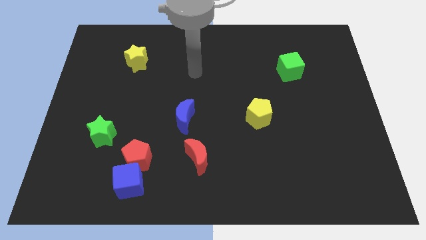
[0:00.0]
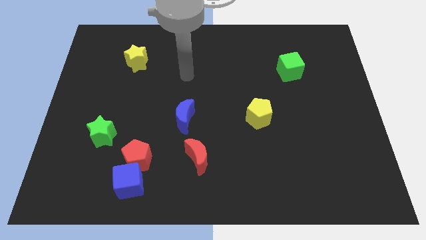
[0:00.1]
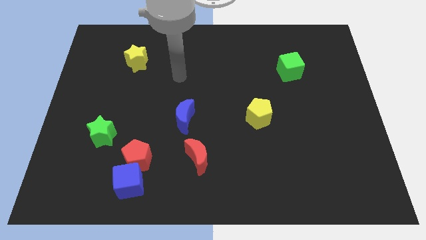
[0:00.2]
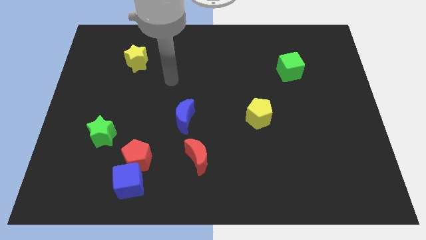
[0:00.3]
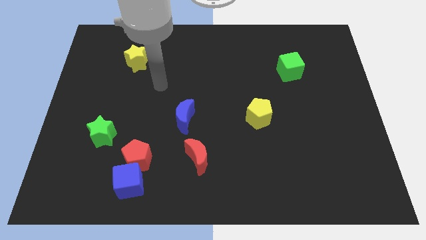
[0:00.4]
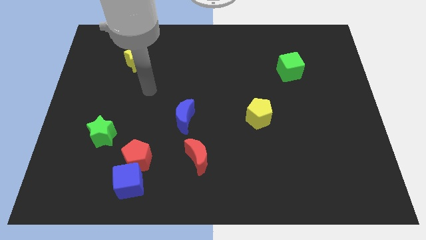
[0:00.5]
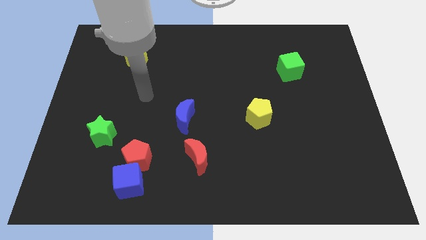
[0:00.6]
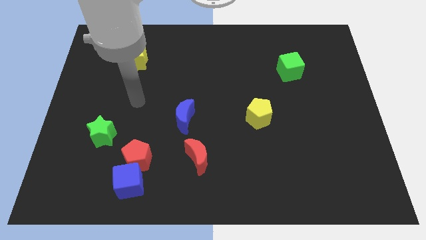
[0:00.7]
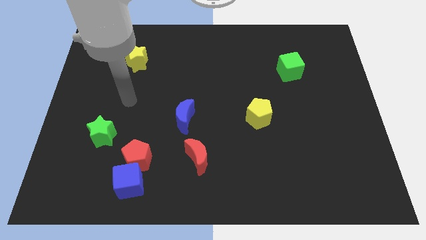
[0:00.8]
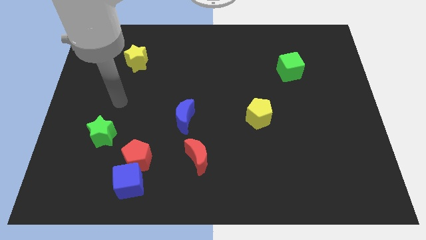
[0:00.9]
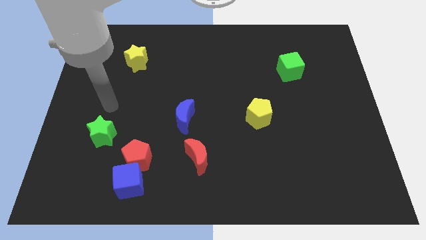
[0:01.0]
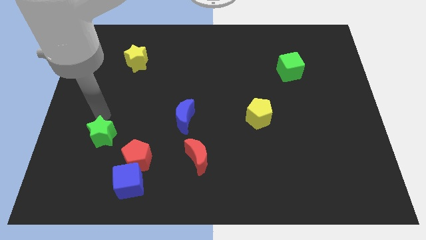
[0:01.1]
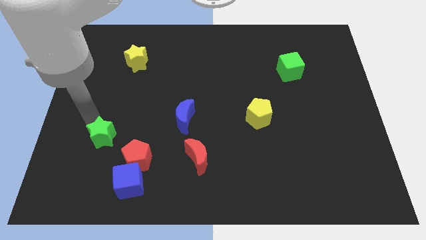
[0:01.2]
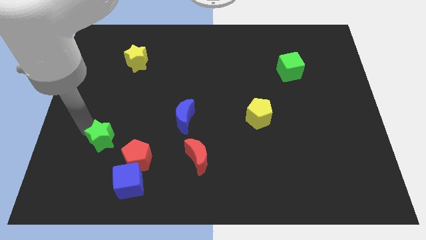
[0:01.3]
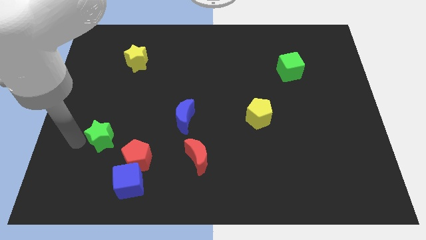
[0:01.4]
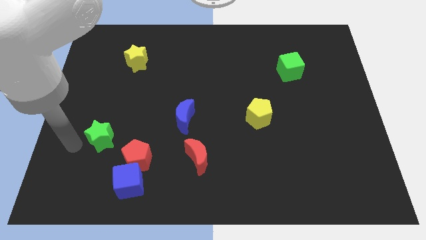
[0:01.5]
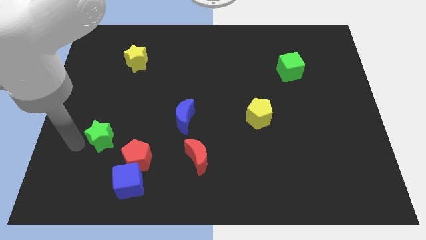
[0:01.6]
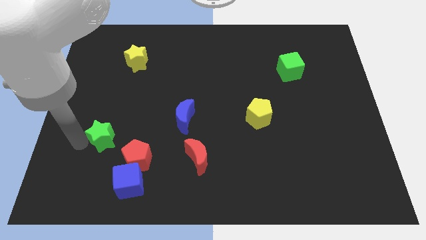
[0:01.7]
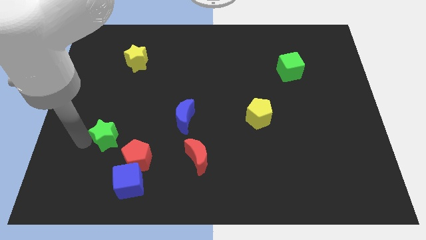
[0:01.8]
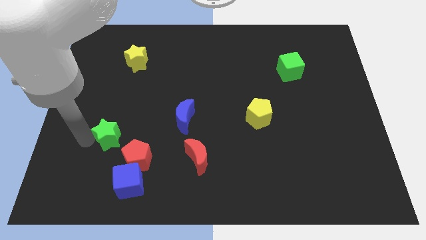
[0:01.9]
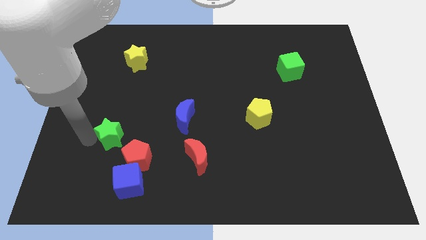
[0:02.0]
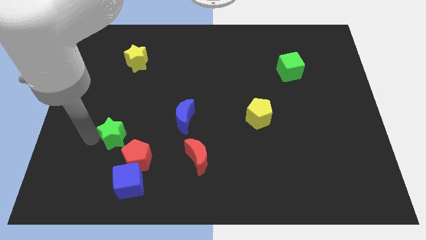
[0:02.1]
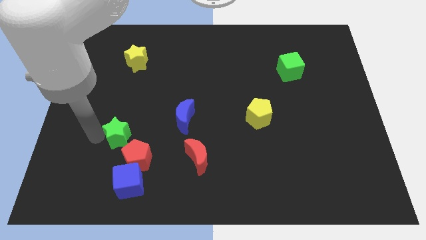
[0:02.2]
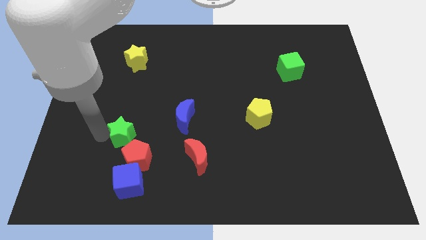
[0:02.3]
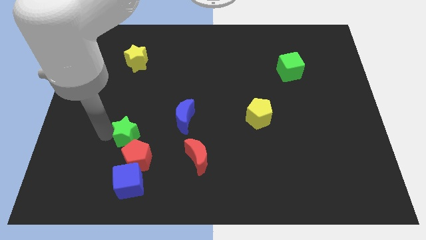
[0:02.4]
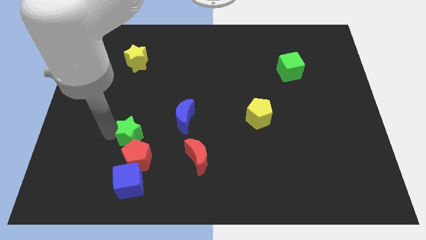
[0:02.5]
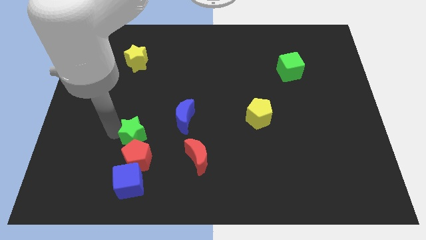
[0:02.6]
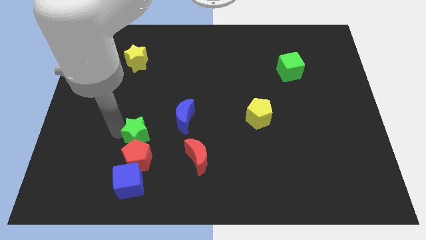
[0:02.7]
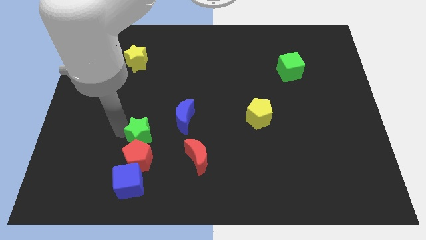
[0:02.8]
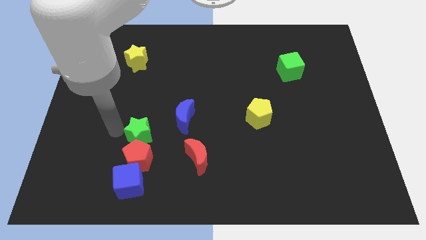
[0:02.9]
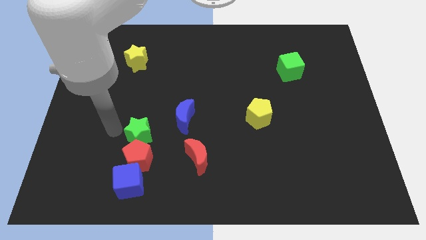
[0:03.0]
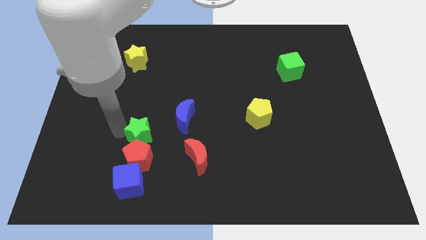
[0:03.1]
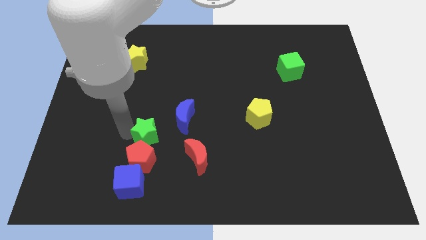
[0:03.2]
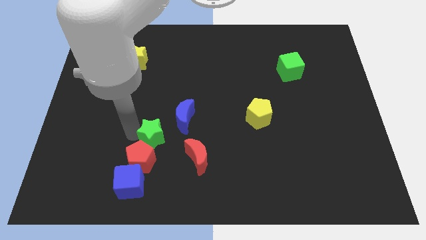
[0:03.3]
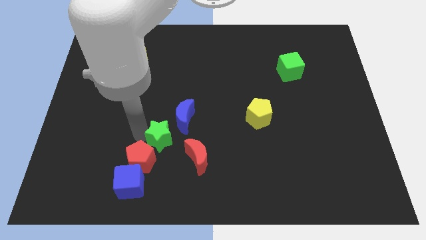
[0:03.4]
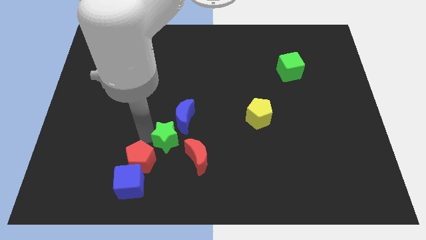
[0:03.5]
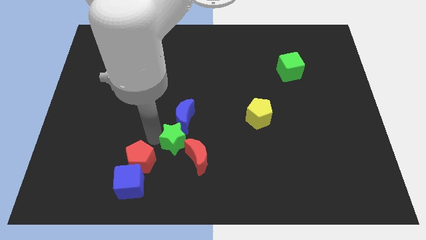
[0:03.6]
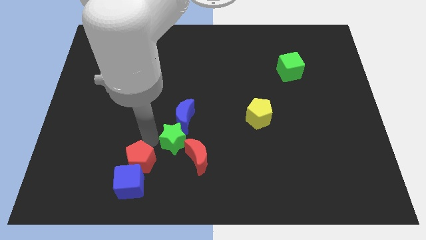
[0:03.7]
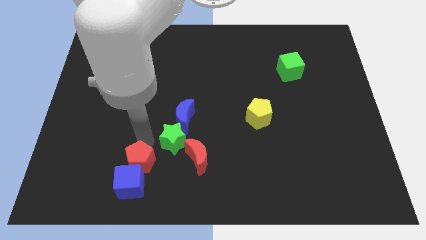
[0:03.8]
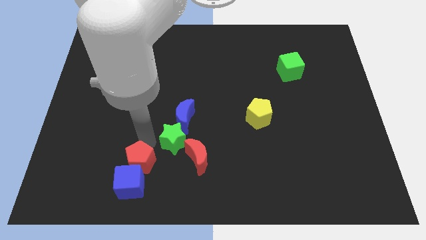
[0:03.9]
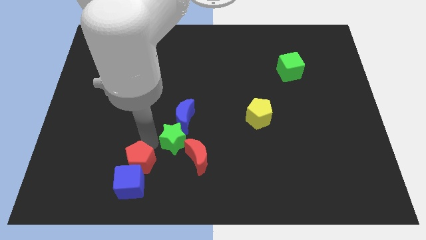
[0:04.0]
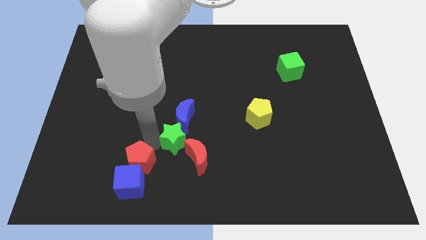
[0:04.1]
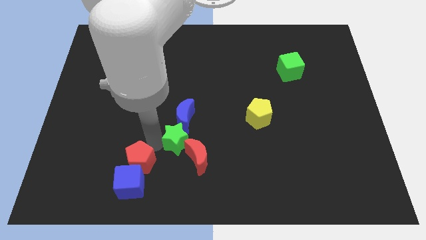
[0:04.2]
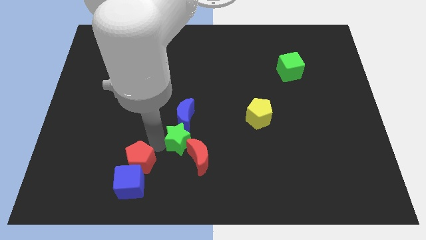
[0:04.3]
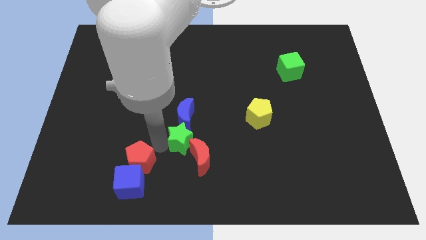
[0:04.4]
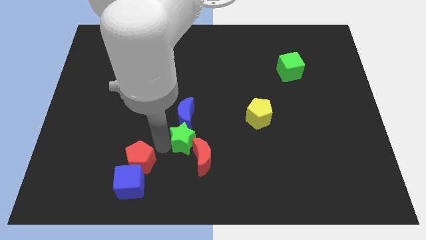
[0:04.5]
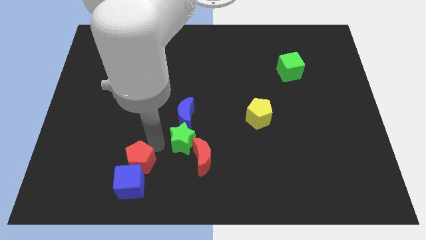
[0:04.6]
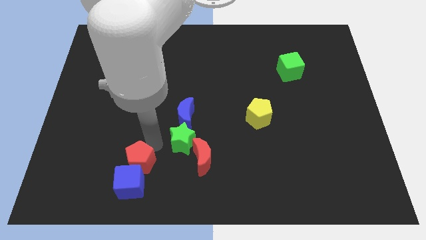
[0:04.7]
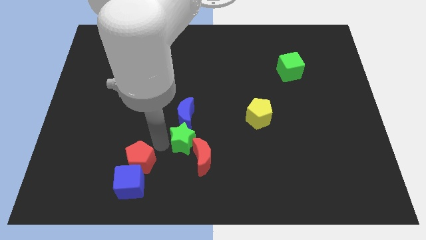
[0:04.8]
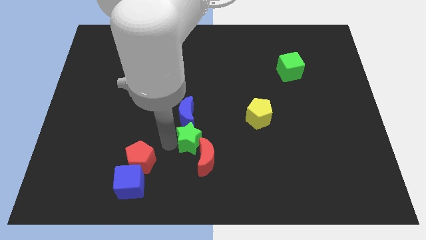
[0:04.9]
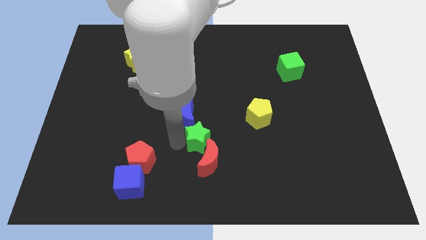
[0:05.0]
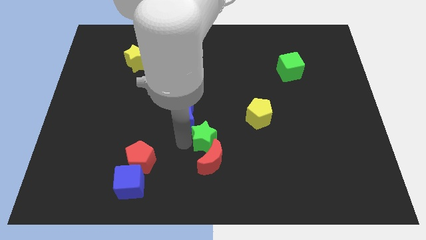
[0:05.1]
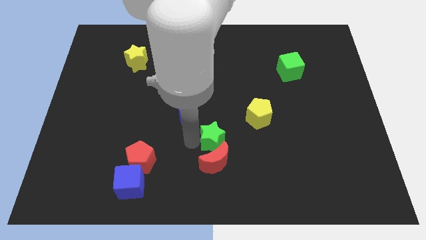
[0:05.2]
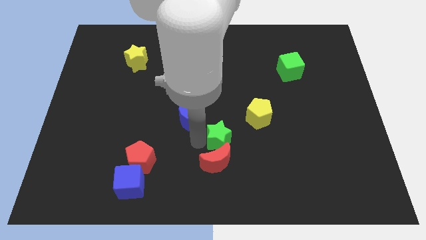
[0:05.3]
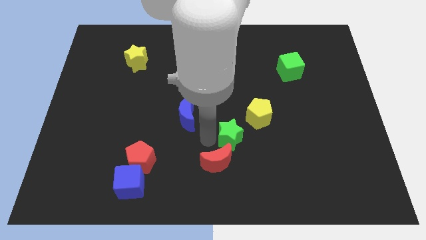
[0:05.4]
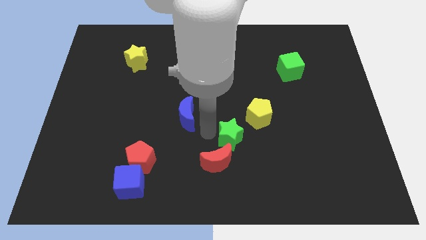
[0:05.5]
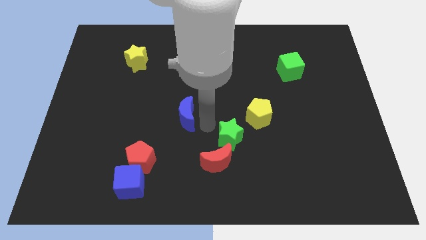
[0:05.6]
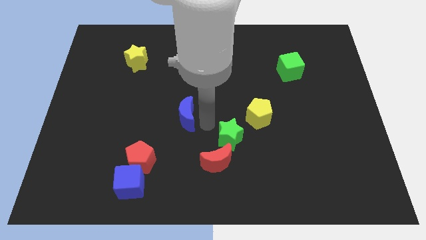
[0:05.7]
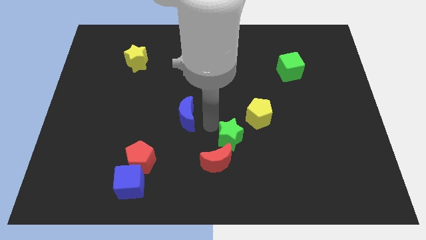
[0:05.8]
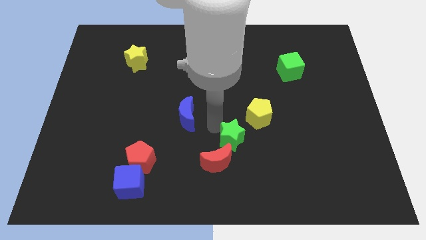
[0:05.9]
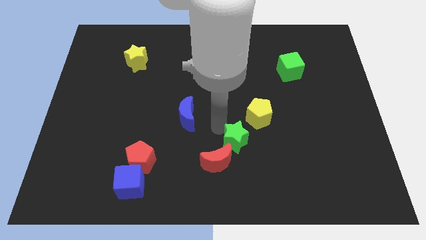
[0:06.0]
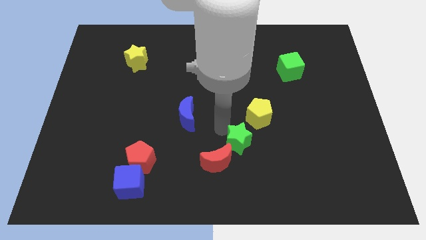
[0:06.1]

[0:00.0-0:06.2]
slide the green star to the bottom of the yellow pentagon

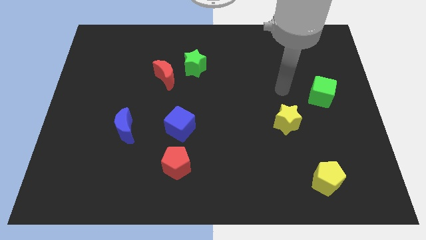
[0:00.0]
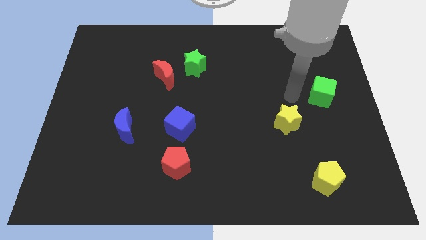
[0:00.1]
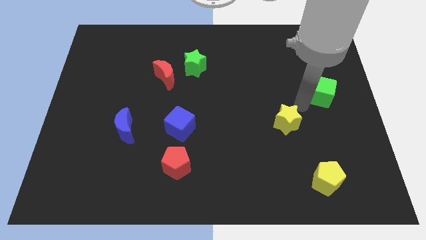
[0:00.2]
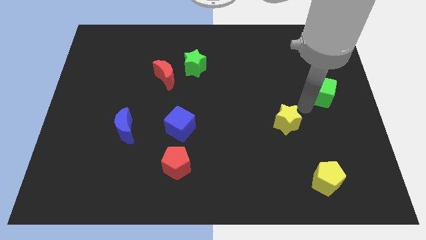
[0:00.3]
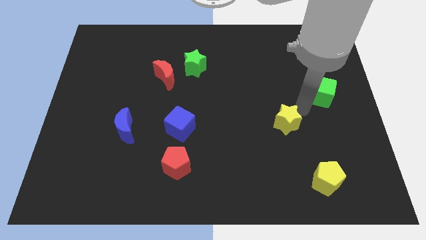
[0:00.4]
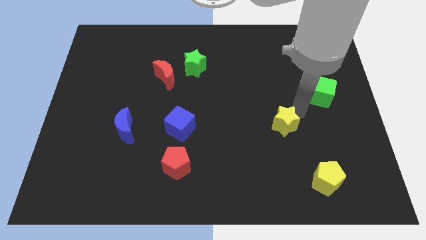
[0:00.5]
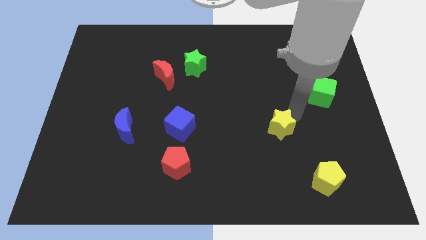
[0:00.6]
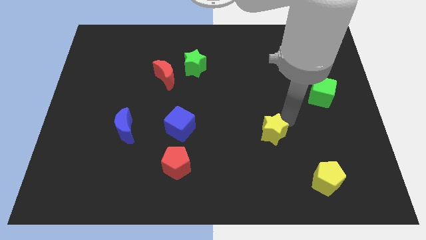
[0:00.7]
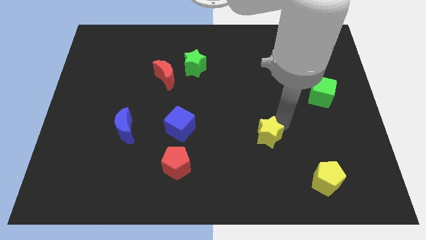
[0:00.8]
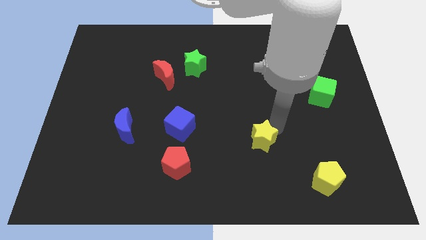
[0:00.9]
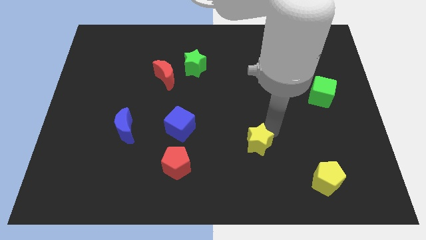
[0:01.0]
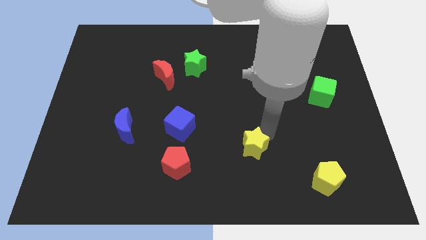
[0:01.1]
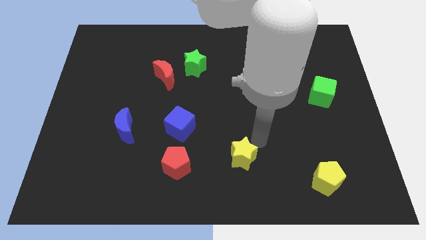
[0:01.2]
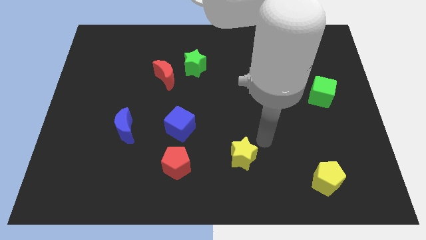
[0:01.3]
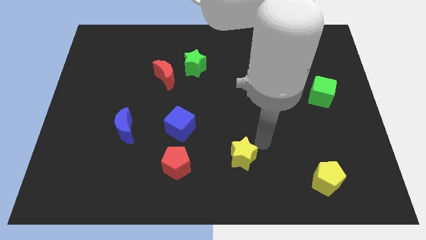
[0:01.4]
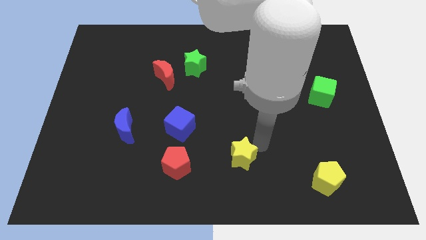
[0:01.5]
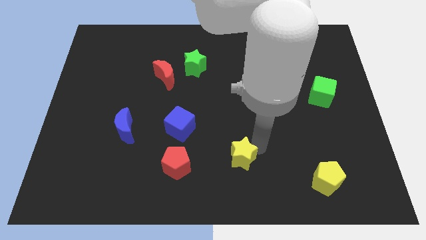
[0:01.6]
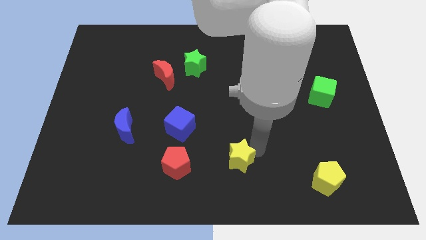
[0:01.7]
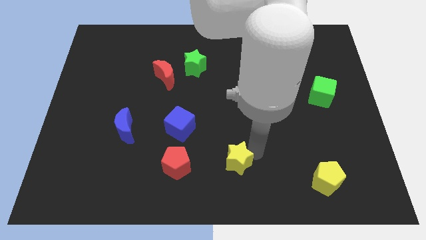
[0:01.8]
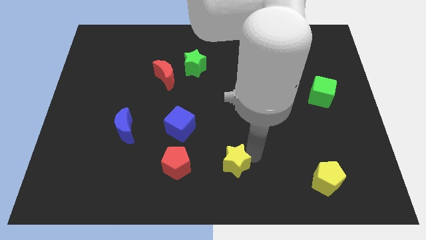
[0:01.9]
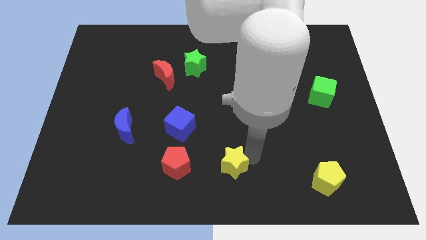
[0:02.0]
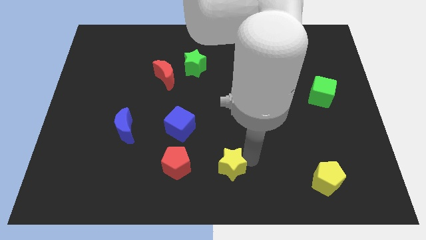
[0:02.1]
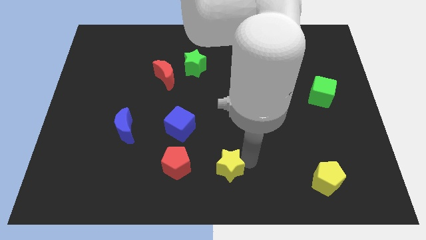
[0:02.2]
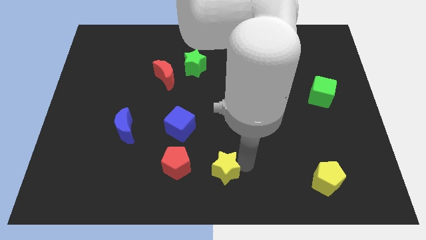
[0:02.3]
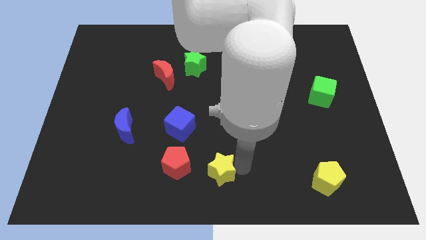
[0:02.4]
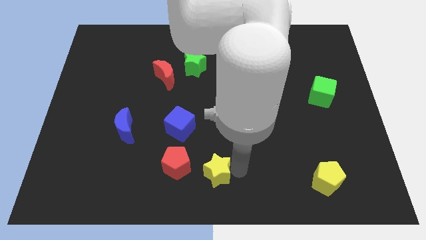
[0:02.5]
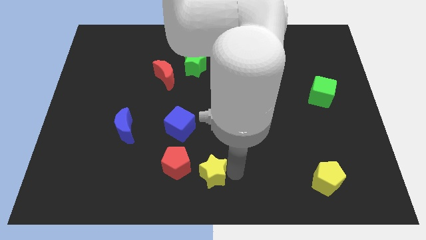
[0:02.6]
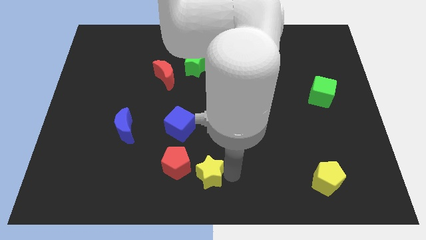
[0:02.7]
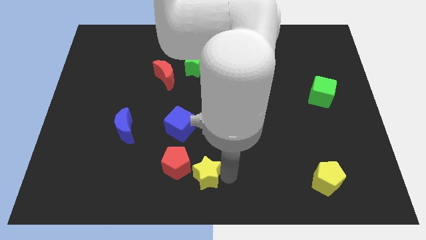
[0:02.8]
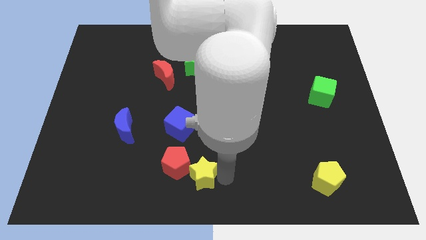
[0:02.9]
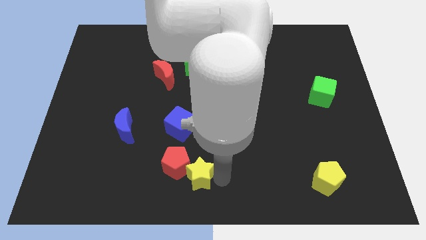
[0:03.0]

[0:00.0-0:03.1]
push the yellow star to the bottom of the blue cube
